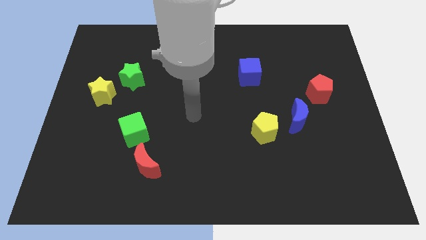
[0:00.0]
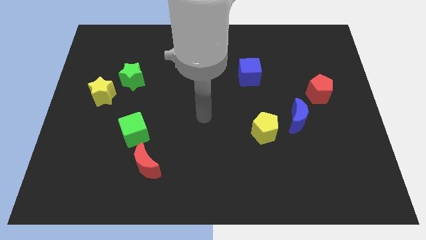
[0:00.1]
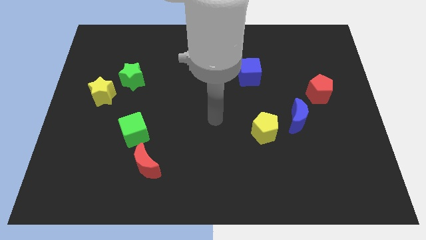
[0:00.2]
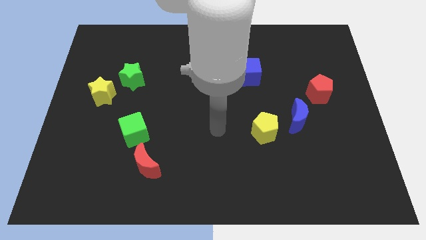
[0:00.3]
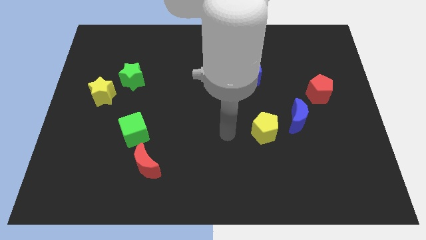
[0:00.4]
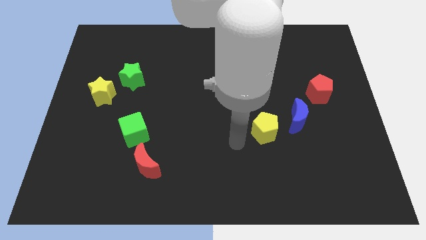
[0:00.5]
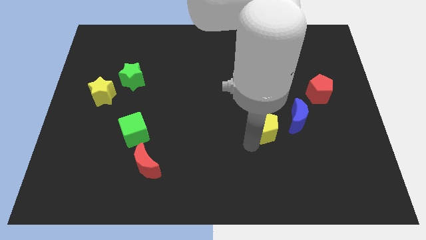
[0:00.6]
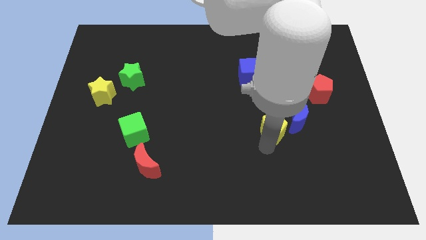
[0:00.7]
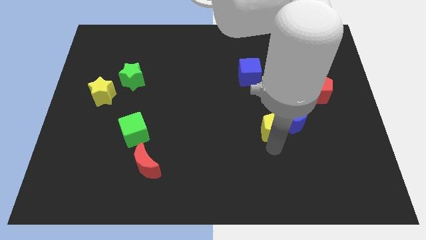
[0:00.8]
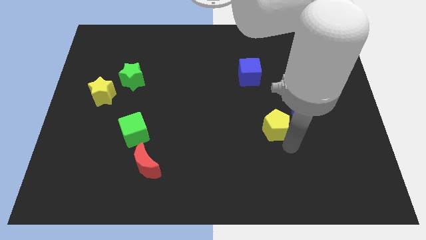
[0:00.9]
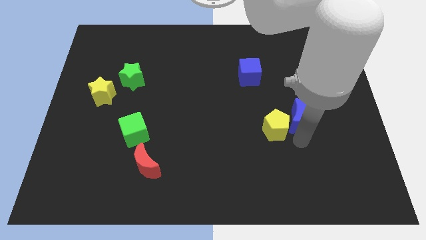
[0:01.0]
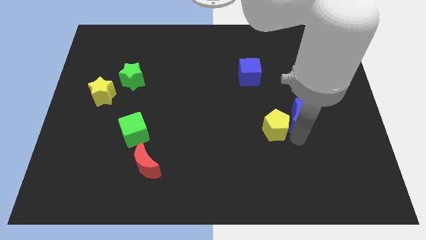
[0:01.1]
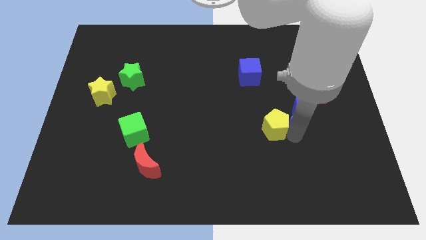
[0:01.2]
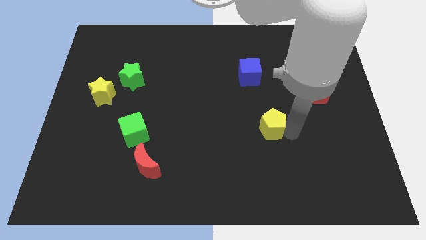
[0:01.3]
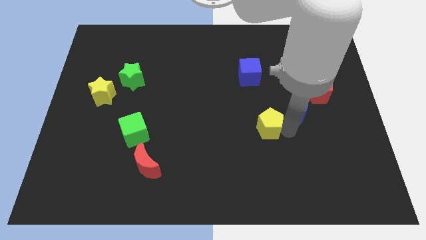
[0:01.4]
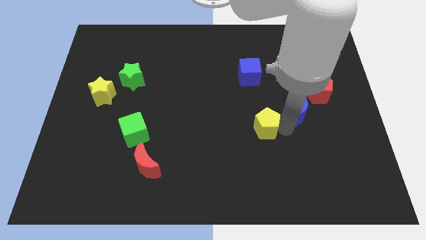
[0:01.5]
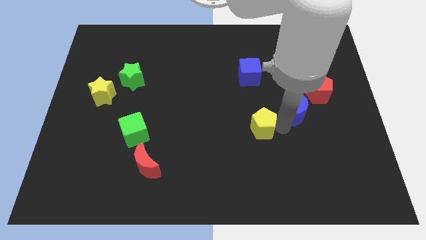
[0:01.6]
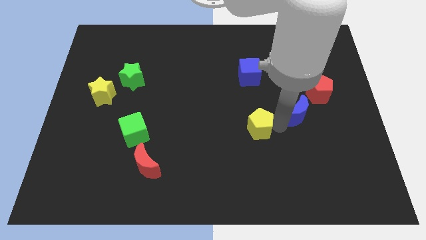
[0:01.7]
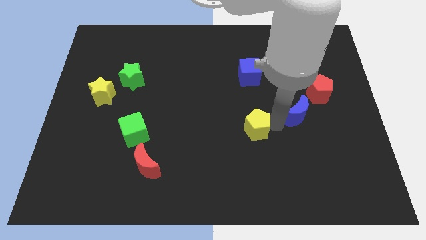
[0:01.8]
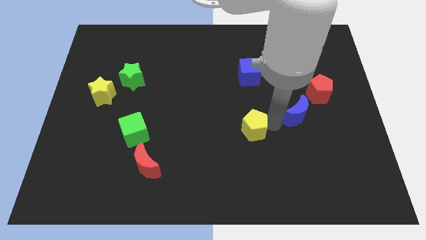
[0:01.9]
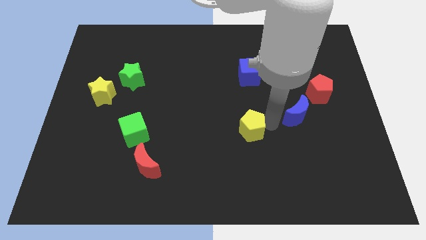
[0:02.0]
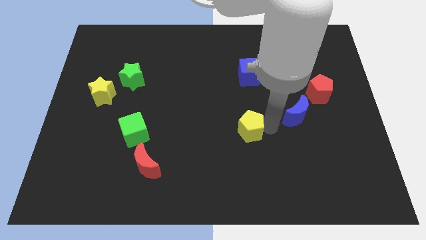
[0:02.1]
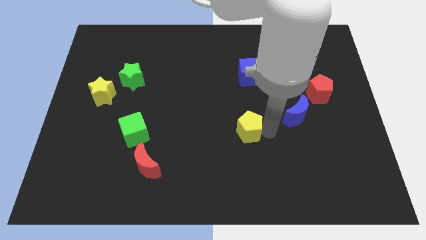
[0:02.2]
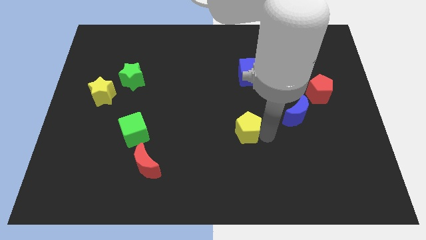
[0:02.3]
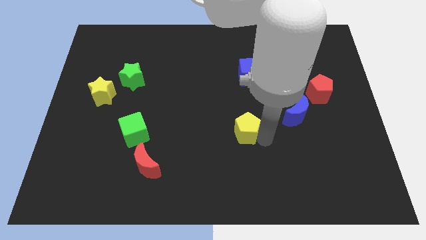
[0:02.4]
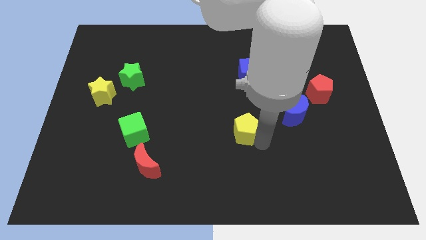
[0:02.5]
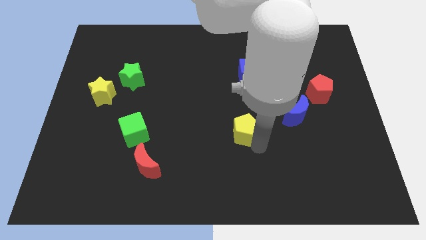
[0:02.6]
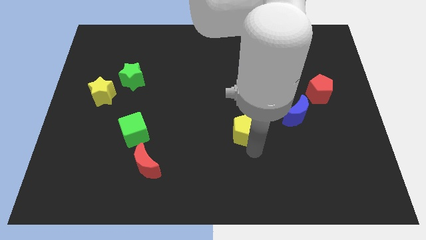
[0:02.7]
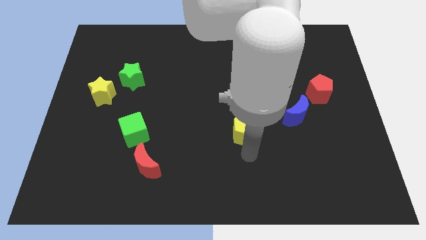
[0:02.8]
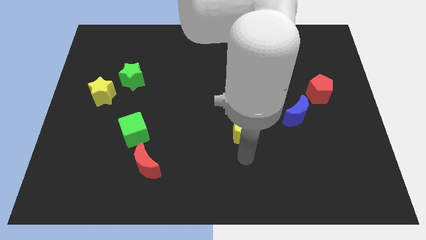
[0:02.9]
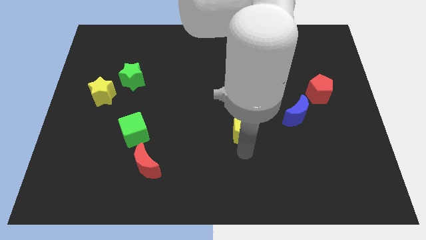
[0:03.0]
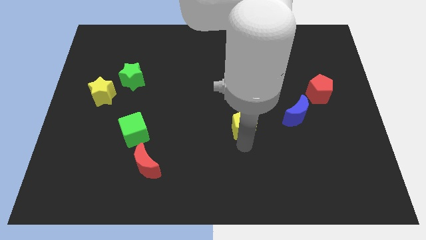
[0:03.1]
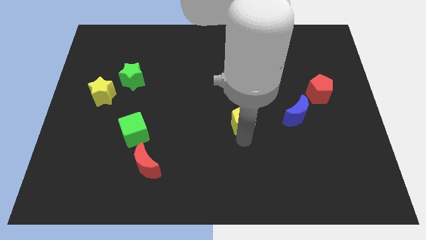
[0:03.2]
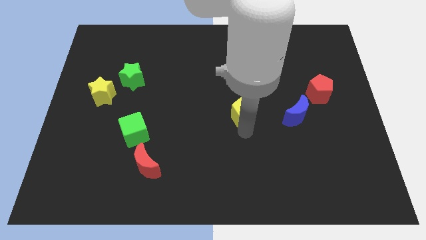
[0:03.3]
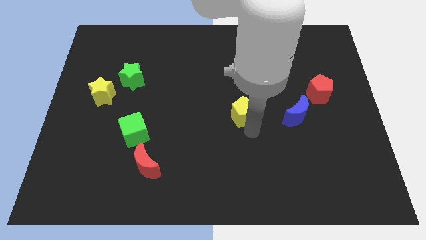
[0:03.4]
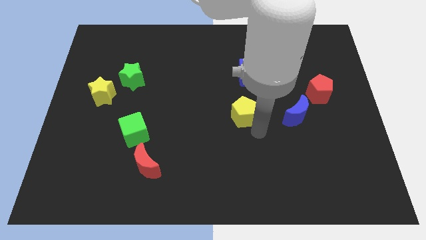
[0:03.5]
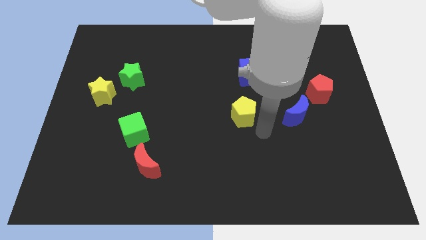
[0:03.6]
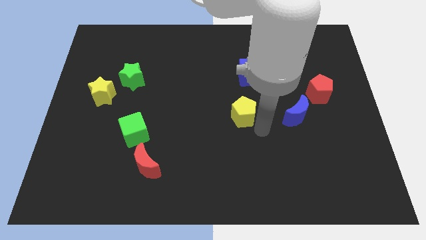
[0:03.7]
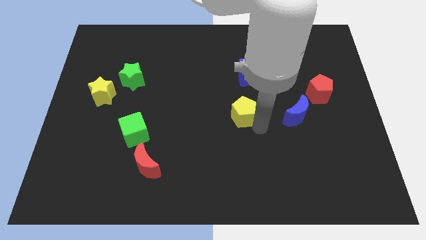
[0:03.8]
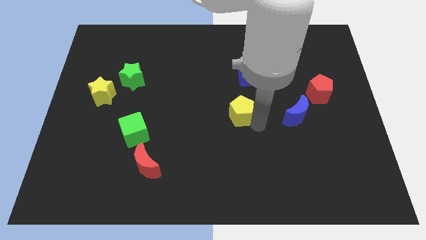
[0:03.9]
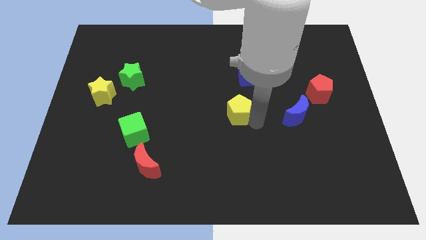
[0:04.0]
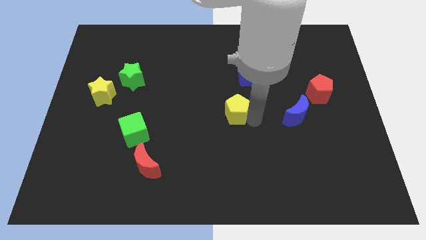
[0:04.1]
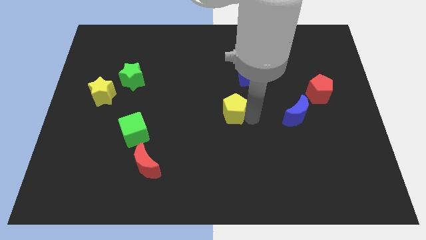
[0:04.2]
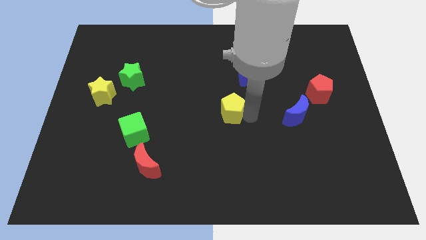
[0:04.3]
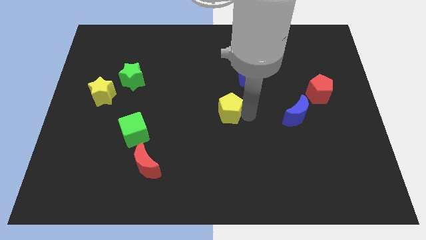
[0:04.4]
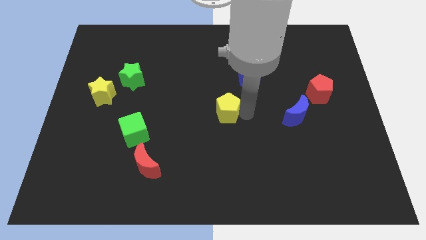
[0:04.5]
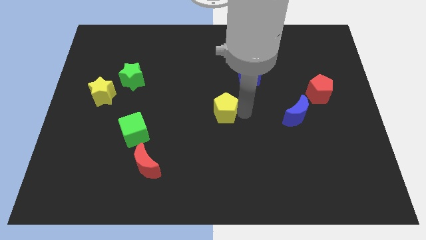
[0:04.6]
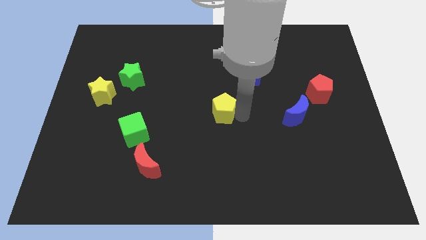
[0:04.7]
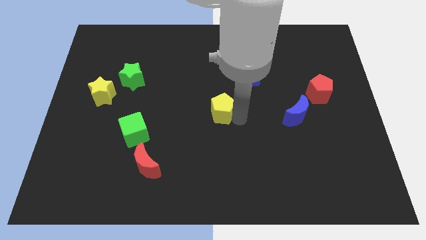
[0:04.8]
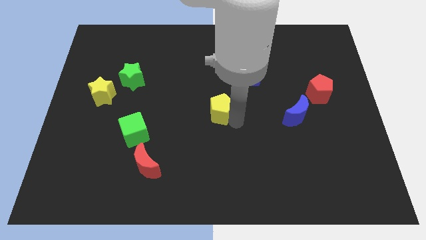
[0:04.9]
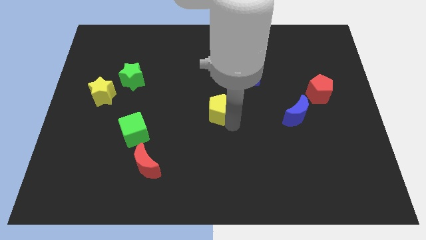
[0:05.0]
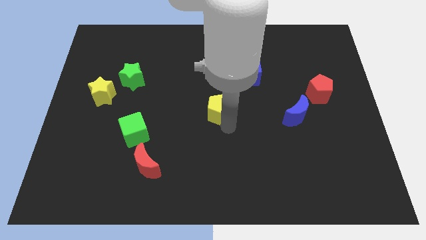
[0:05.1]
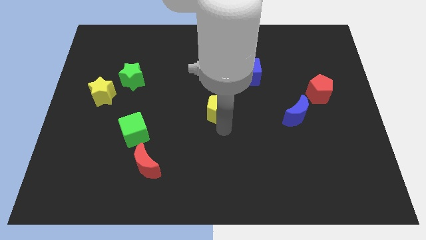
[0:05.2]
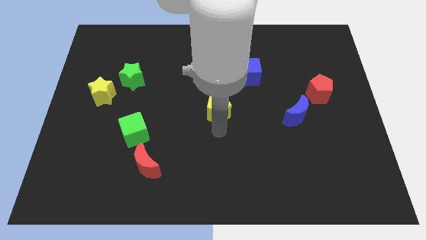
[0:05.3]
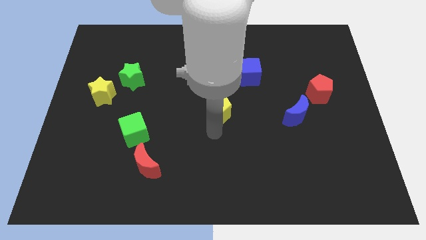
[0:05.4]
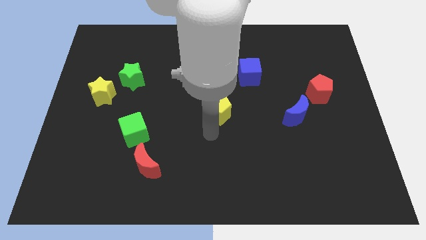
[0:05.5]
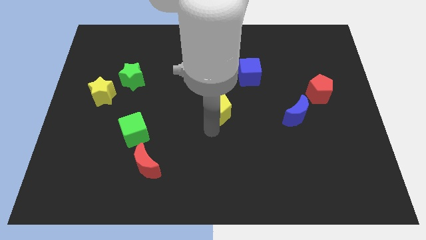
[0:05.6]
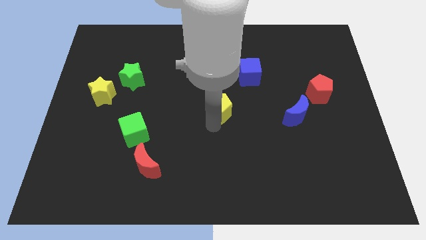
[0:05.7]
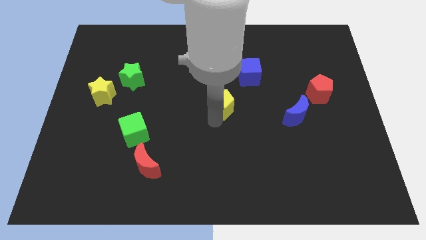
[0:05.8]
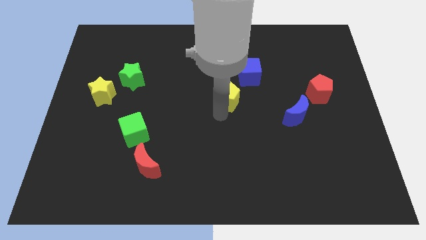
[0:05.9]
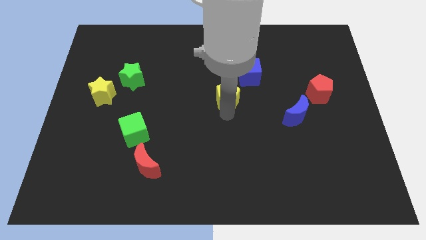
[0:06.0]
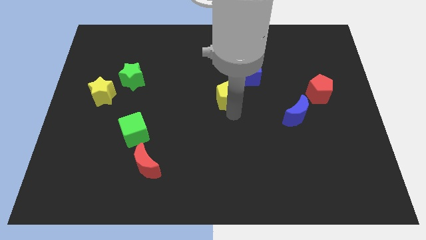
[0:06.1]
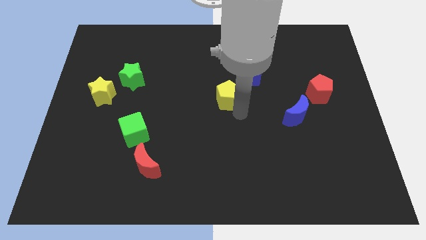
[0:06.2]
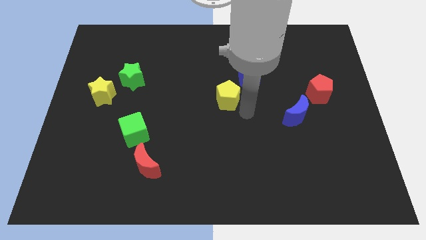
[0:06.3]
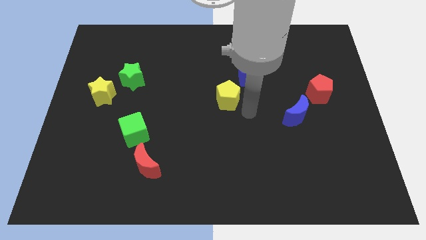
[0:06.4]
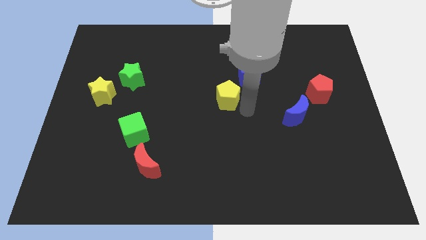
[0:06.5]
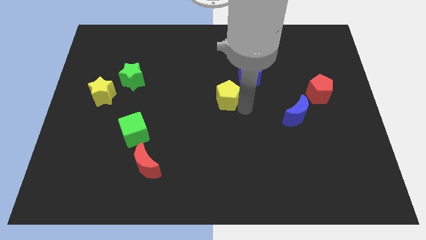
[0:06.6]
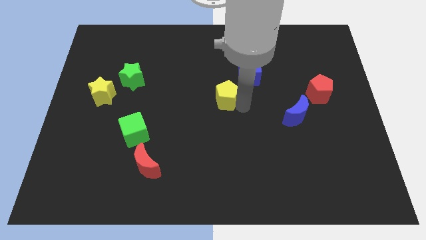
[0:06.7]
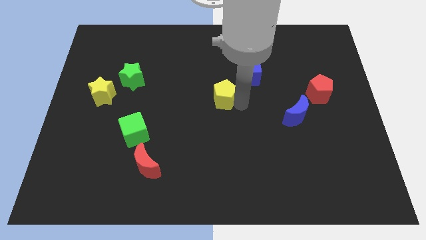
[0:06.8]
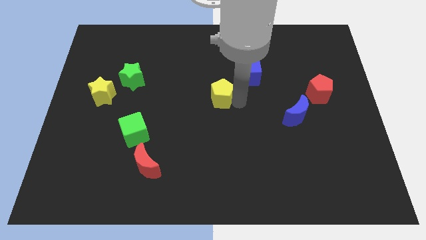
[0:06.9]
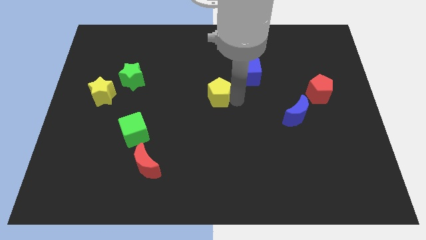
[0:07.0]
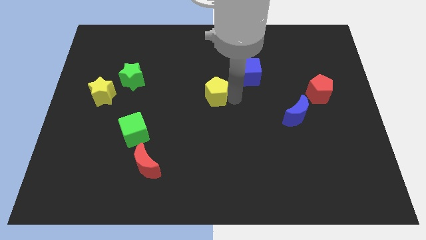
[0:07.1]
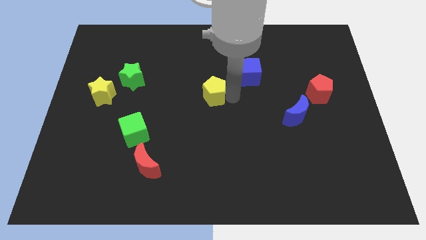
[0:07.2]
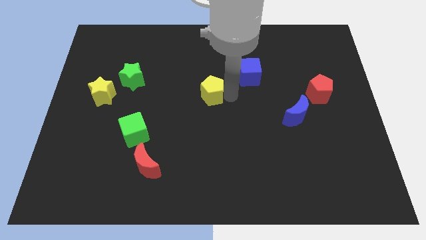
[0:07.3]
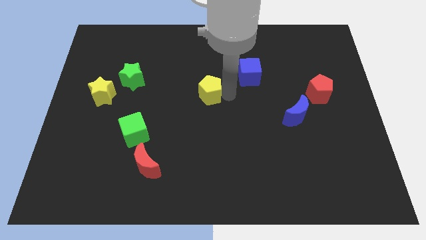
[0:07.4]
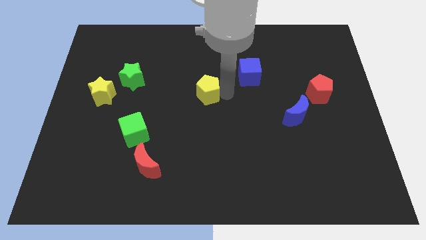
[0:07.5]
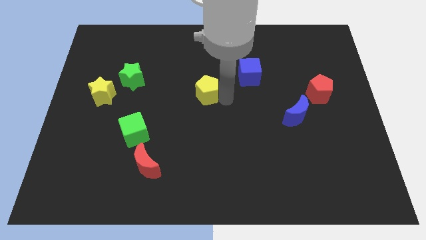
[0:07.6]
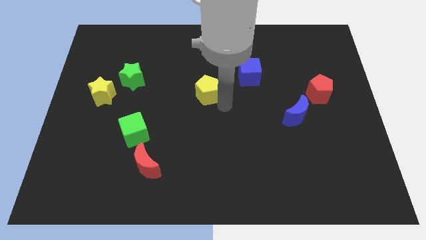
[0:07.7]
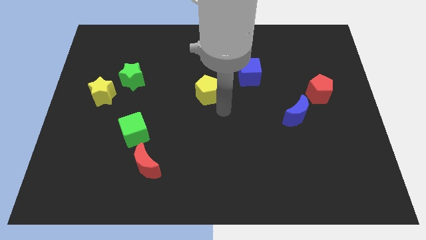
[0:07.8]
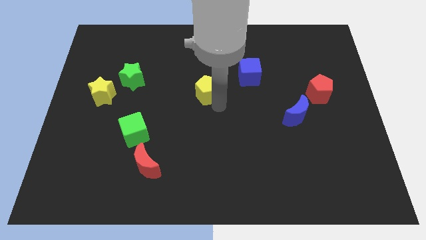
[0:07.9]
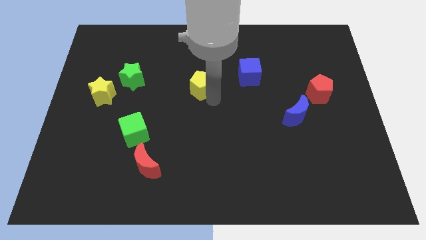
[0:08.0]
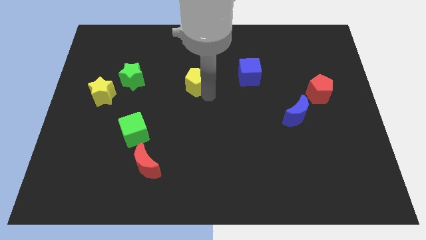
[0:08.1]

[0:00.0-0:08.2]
slide the yellow pentagon upwards and then left
